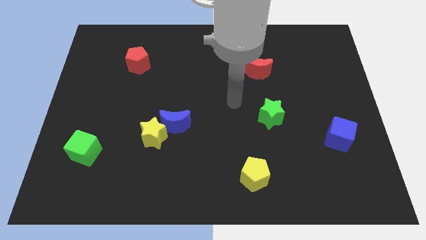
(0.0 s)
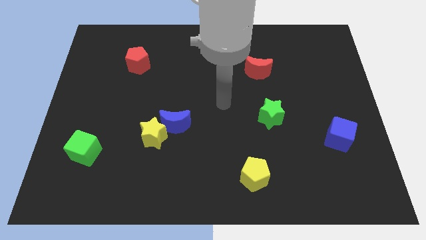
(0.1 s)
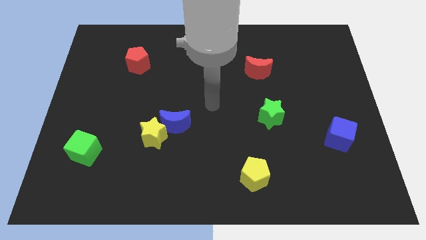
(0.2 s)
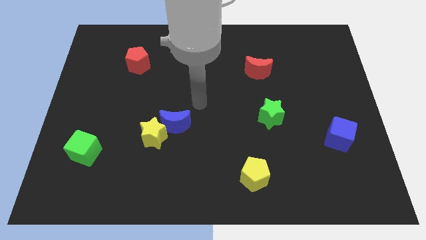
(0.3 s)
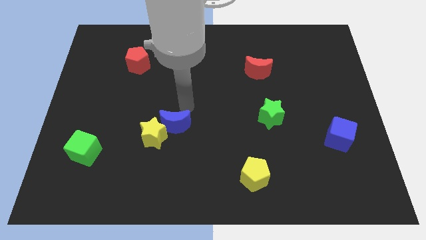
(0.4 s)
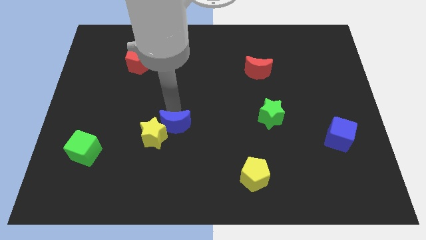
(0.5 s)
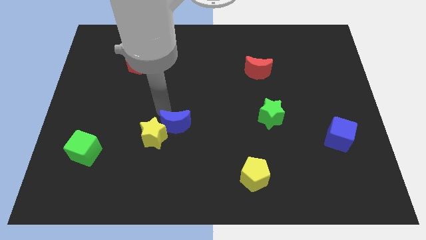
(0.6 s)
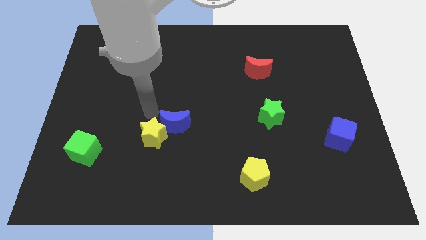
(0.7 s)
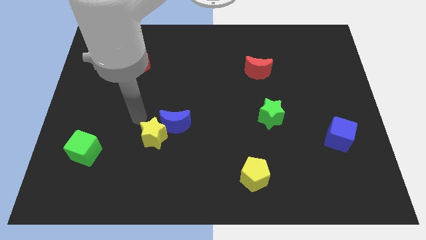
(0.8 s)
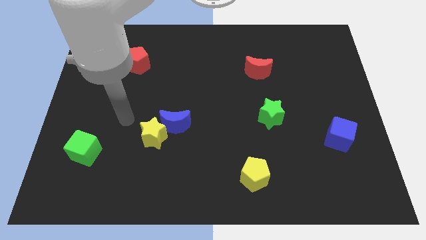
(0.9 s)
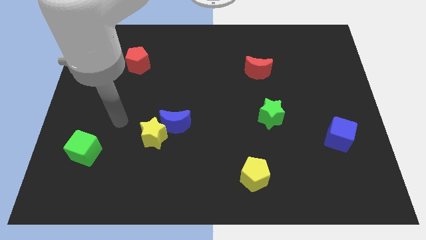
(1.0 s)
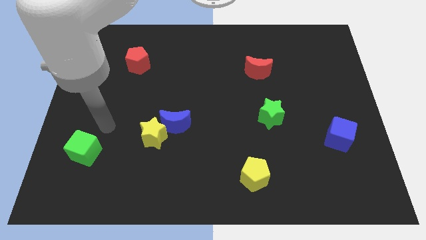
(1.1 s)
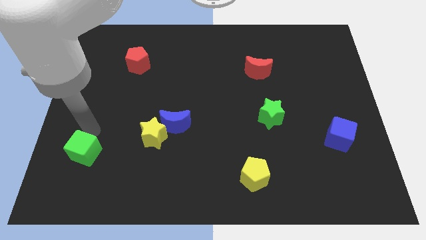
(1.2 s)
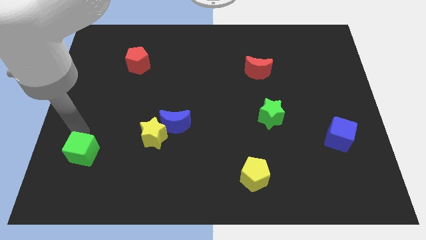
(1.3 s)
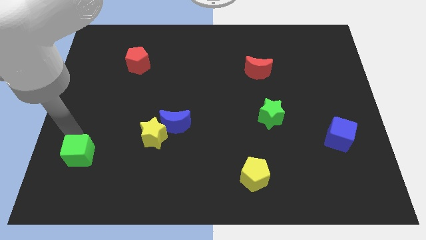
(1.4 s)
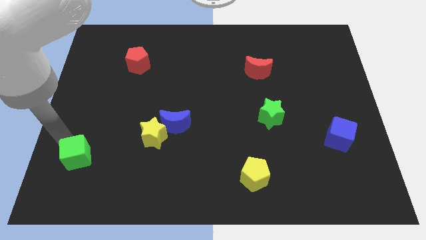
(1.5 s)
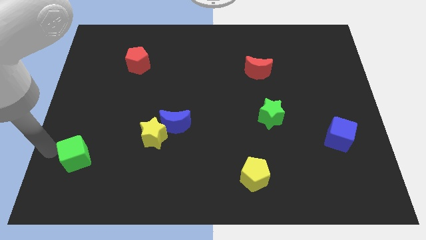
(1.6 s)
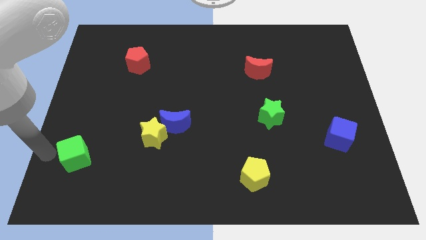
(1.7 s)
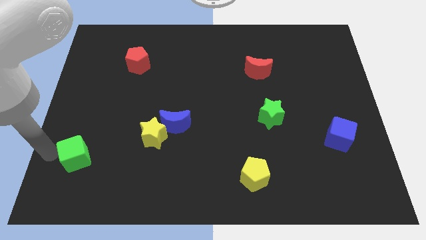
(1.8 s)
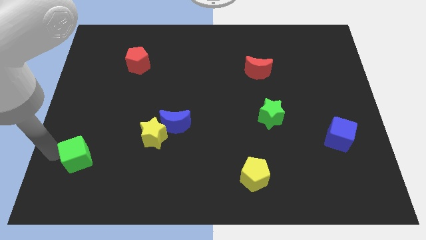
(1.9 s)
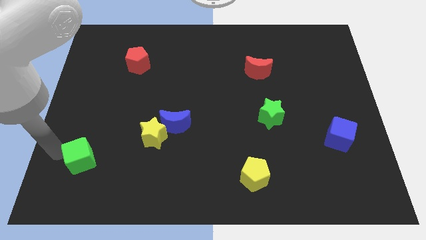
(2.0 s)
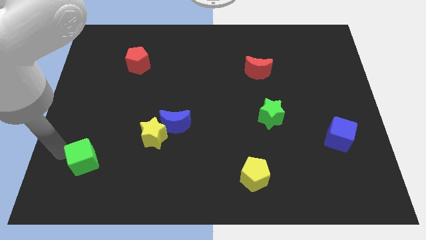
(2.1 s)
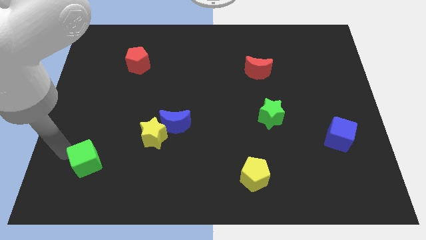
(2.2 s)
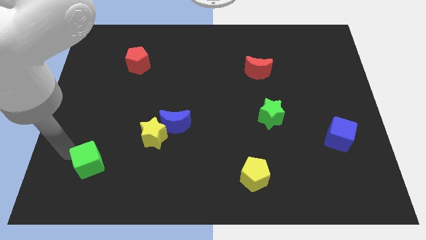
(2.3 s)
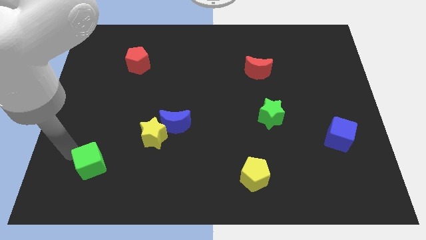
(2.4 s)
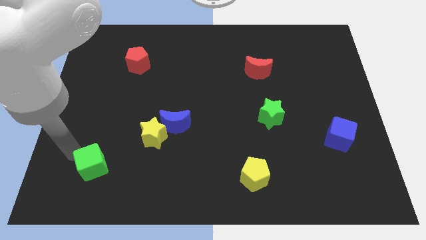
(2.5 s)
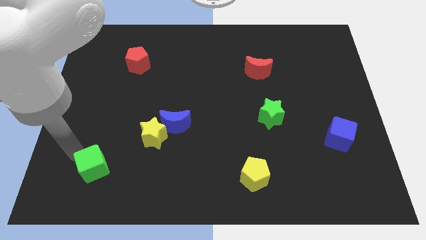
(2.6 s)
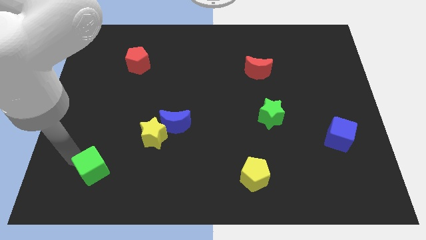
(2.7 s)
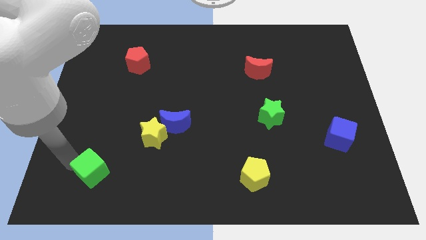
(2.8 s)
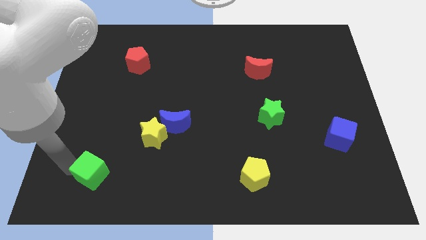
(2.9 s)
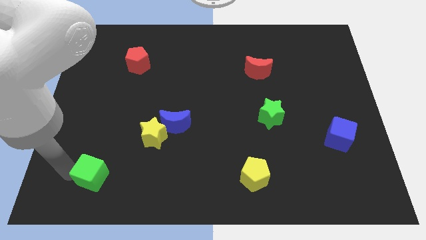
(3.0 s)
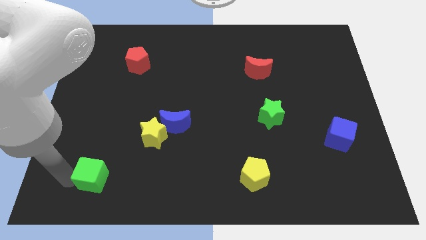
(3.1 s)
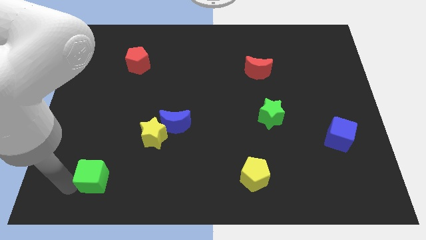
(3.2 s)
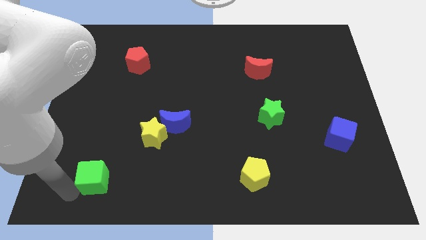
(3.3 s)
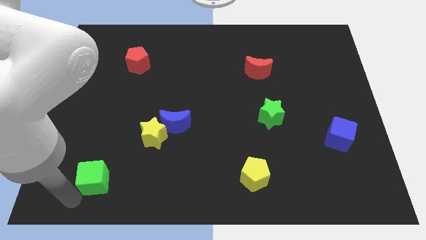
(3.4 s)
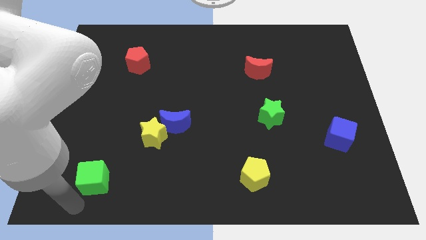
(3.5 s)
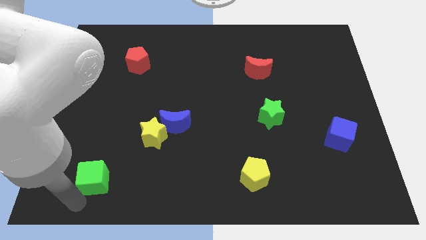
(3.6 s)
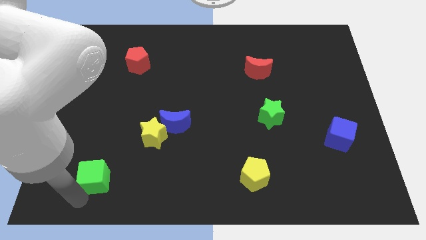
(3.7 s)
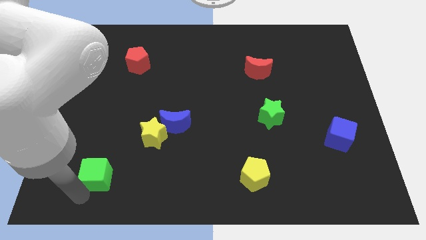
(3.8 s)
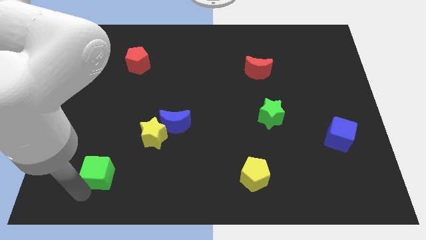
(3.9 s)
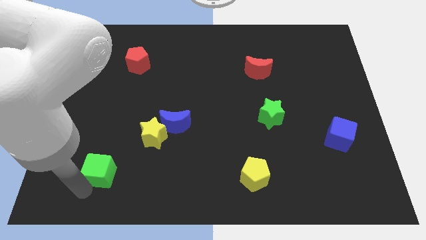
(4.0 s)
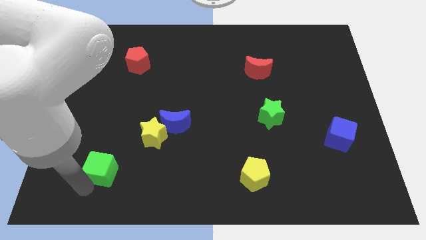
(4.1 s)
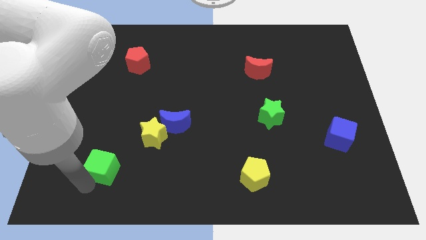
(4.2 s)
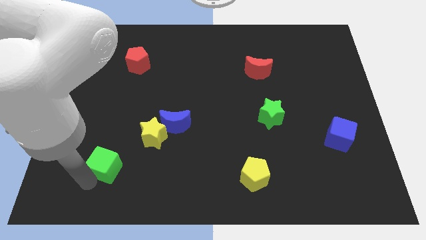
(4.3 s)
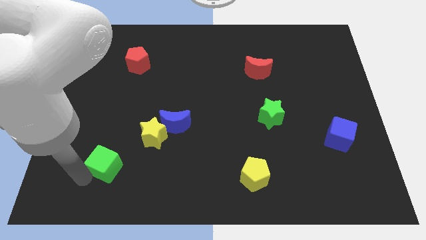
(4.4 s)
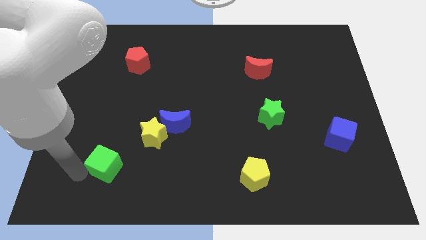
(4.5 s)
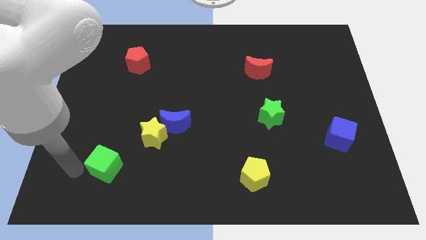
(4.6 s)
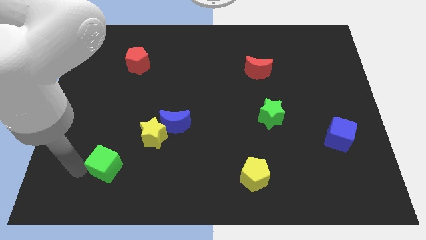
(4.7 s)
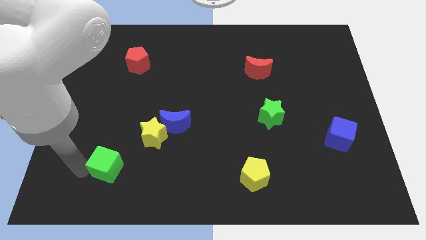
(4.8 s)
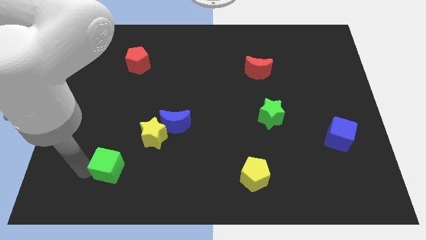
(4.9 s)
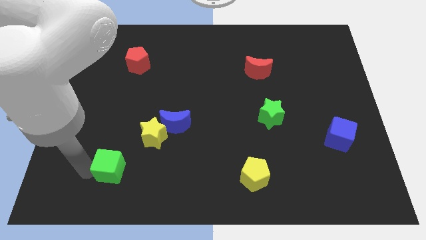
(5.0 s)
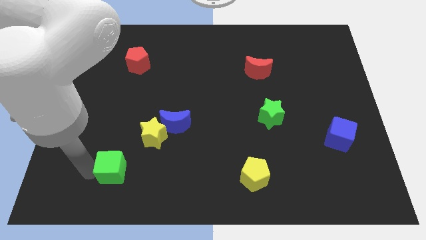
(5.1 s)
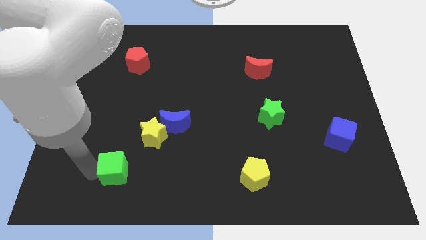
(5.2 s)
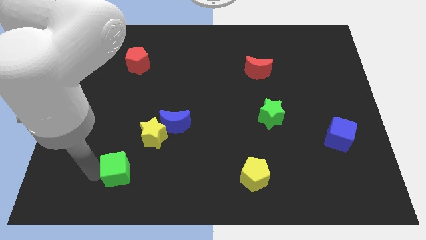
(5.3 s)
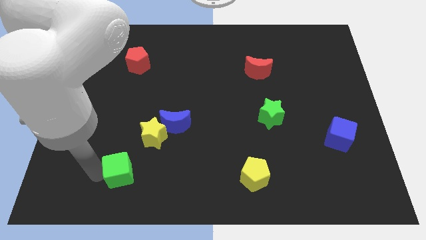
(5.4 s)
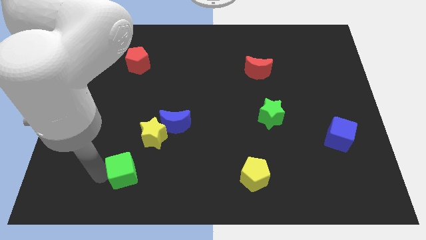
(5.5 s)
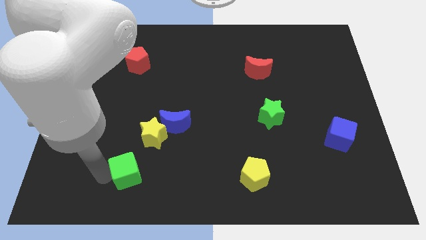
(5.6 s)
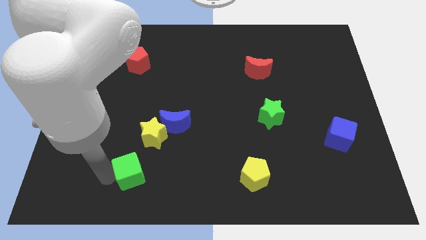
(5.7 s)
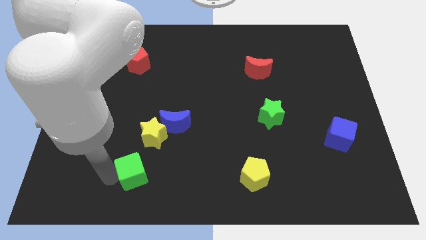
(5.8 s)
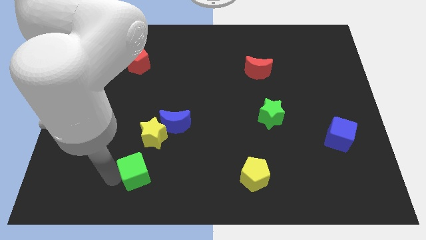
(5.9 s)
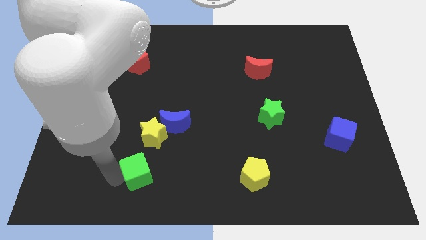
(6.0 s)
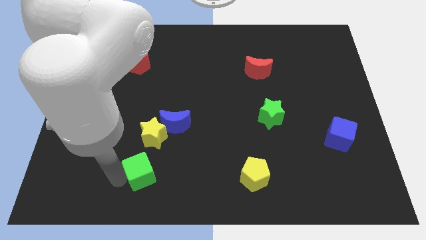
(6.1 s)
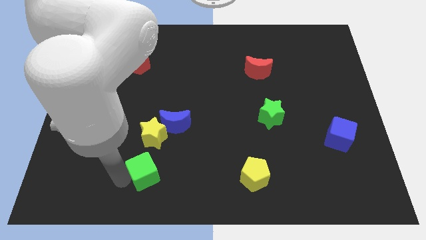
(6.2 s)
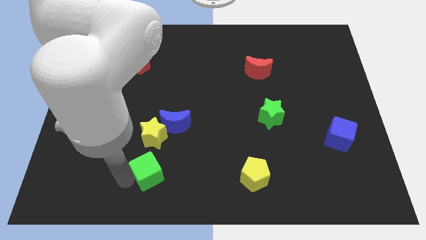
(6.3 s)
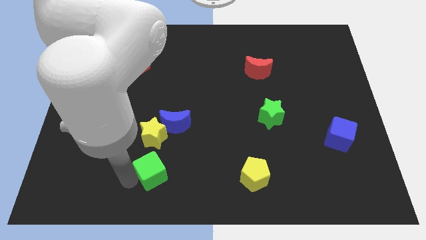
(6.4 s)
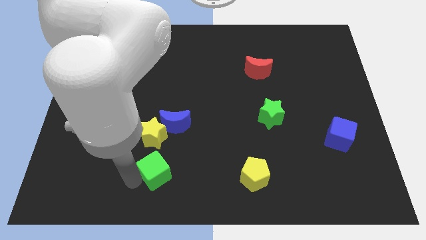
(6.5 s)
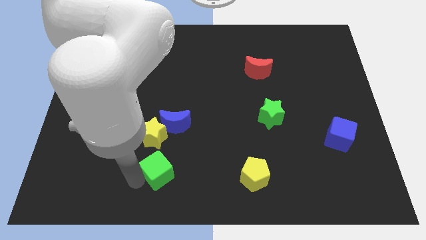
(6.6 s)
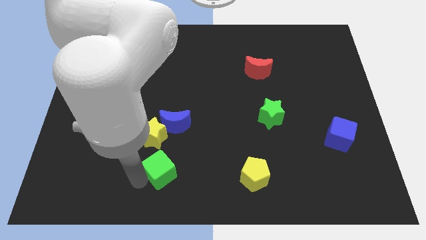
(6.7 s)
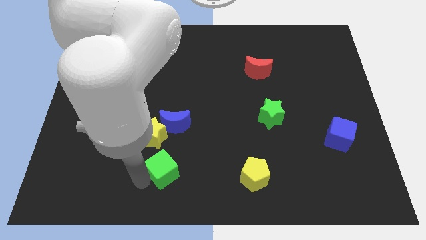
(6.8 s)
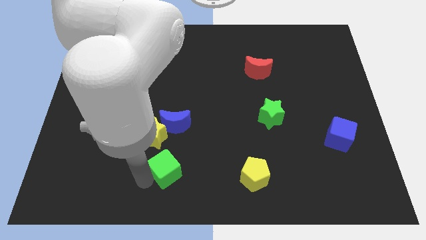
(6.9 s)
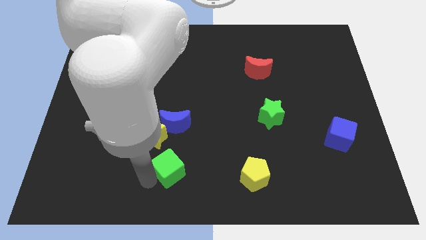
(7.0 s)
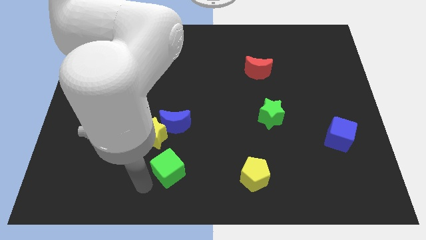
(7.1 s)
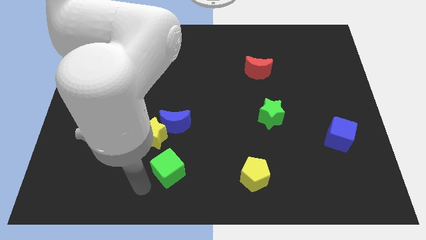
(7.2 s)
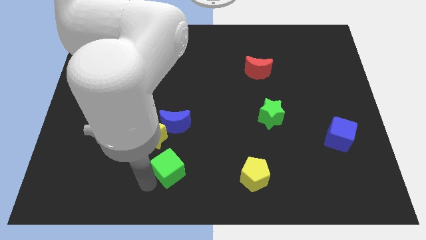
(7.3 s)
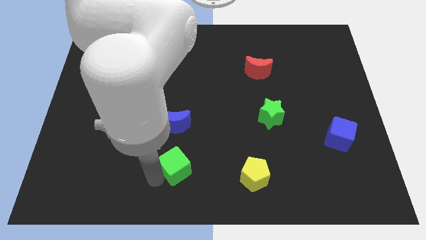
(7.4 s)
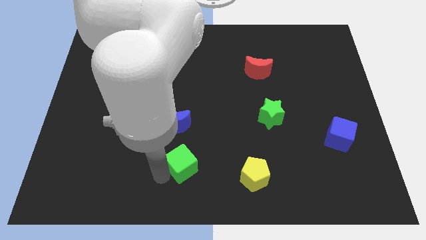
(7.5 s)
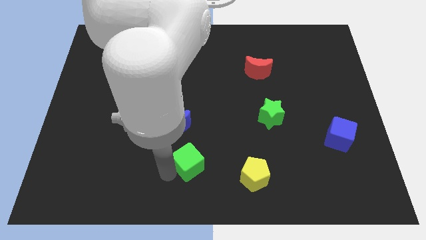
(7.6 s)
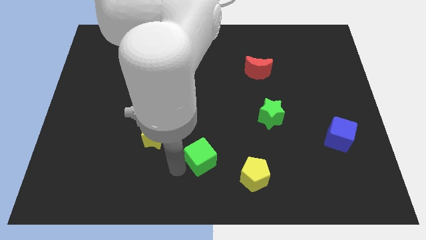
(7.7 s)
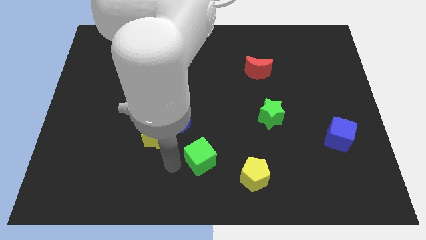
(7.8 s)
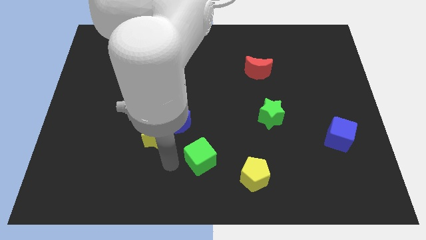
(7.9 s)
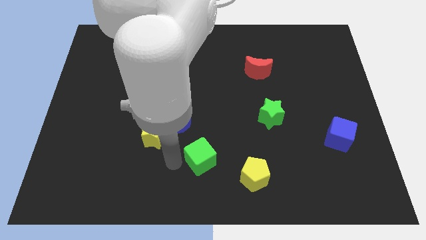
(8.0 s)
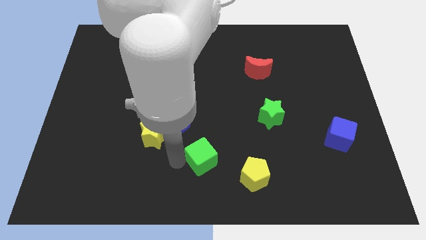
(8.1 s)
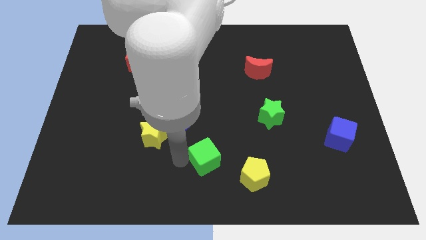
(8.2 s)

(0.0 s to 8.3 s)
slide the green cube to the top left side of the yellow pentagon
